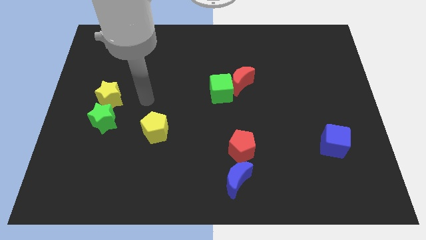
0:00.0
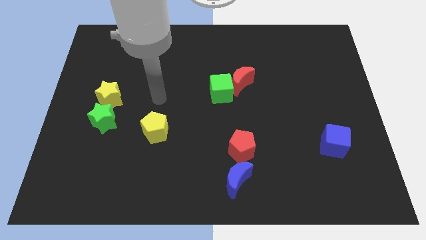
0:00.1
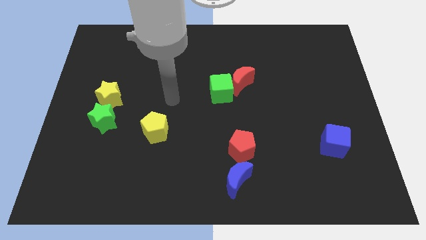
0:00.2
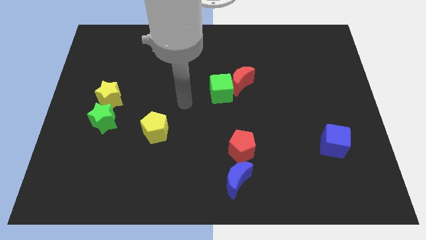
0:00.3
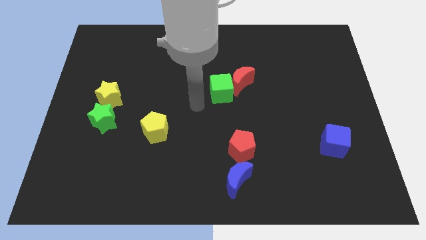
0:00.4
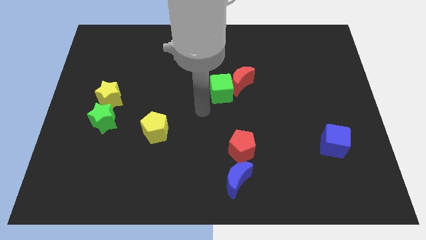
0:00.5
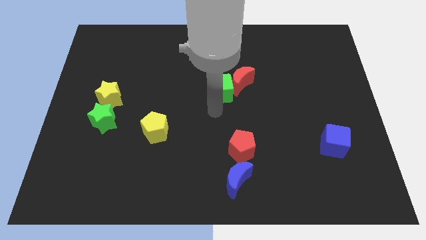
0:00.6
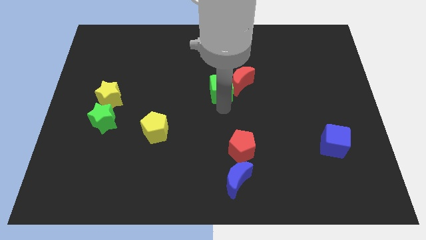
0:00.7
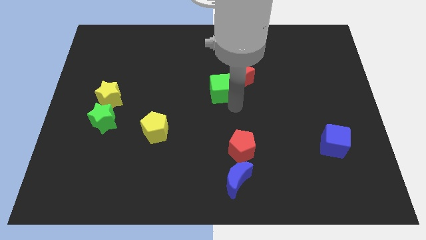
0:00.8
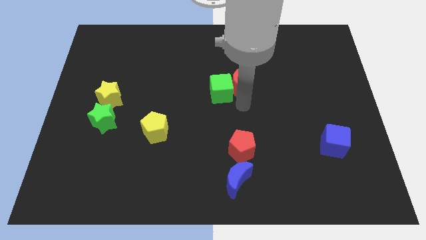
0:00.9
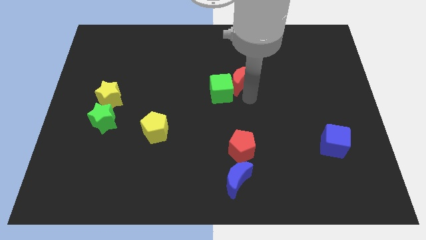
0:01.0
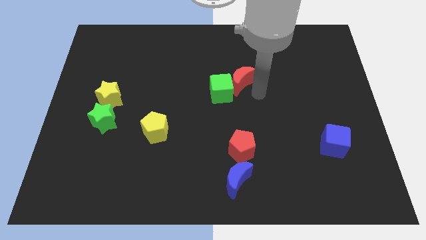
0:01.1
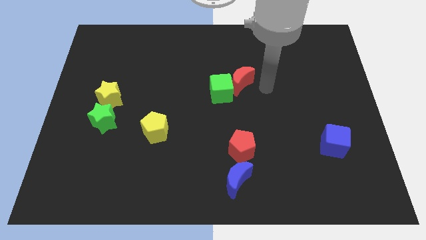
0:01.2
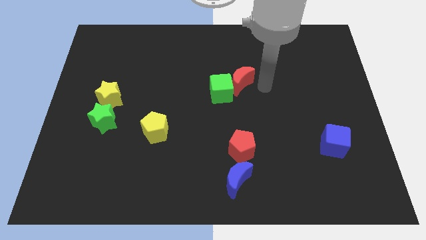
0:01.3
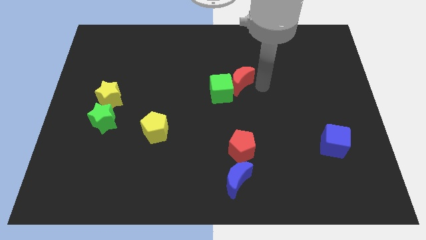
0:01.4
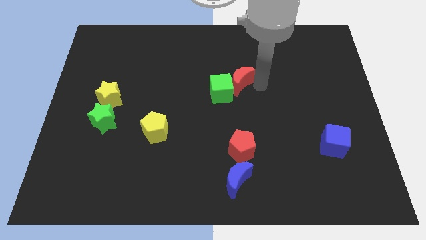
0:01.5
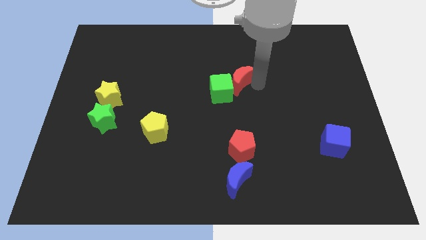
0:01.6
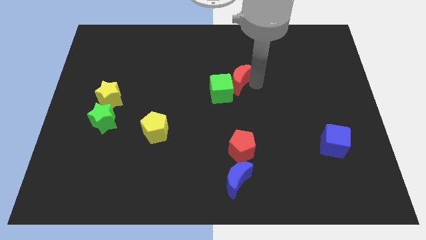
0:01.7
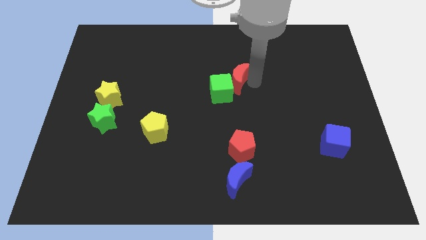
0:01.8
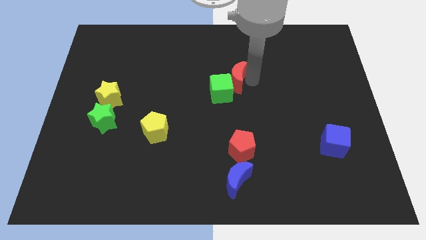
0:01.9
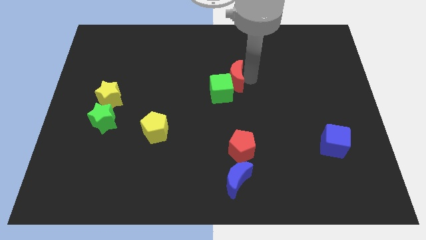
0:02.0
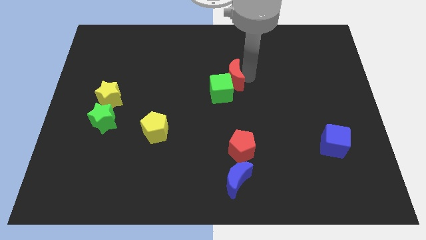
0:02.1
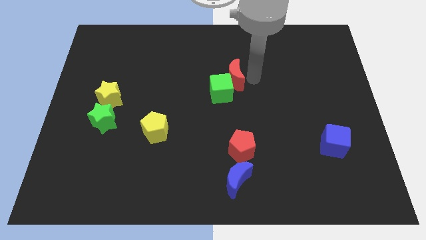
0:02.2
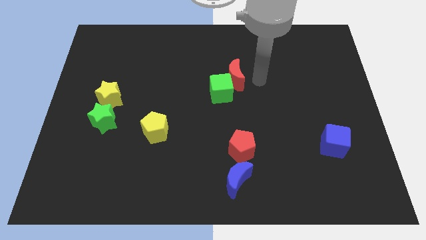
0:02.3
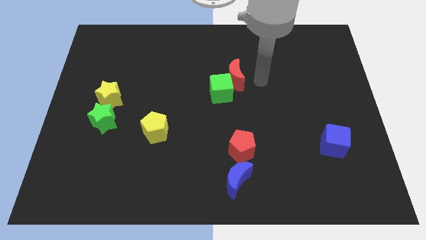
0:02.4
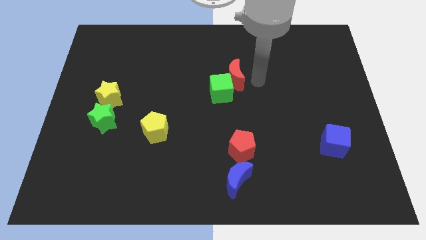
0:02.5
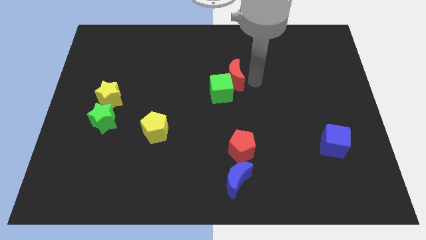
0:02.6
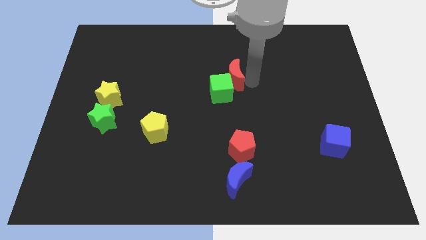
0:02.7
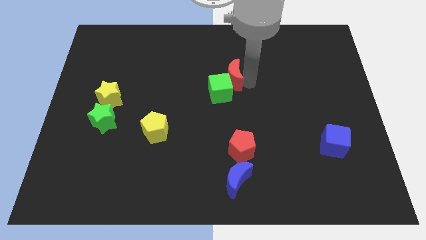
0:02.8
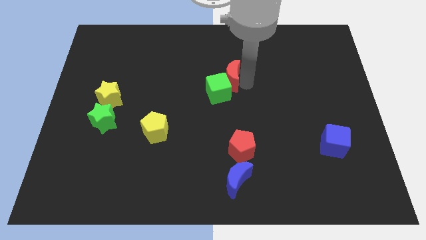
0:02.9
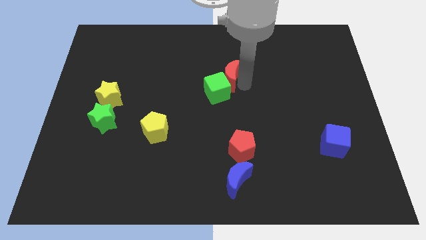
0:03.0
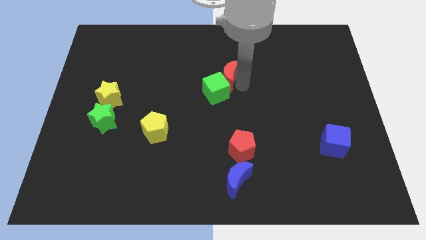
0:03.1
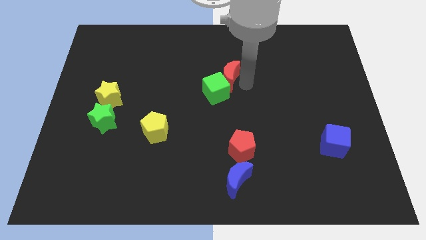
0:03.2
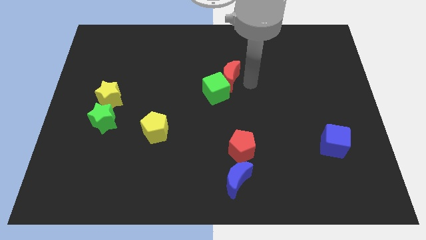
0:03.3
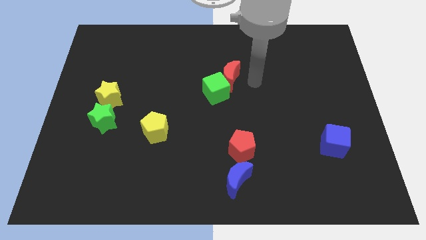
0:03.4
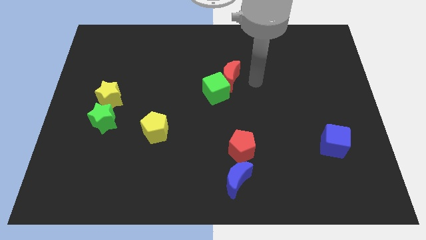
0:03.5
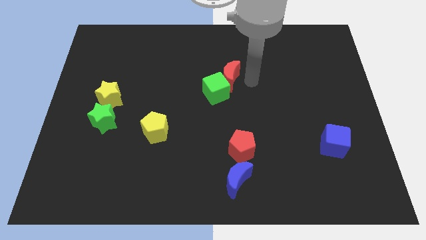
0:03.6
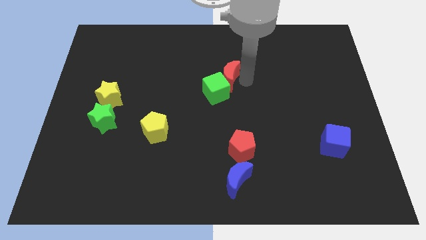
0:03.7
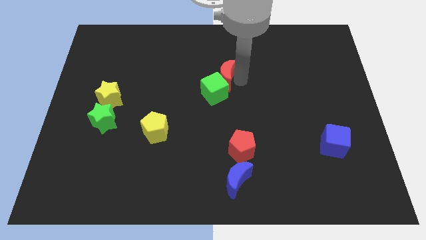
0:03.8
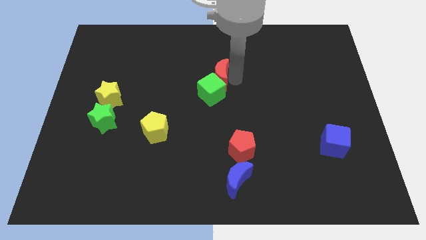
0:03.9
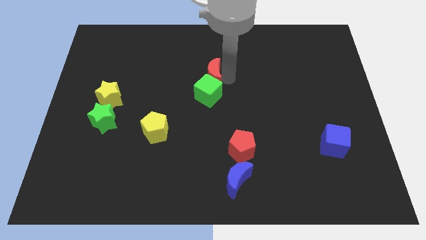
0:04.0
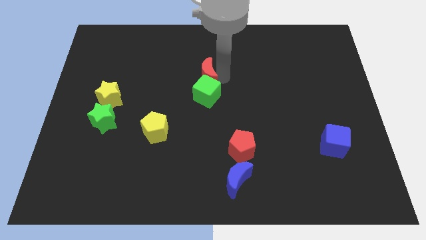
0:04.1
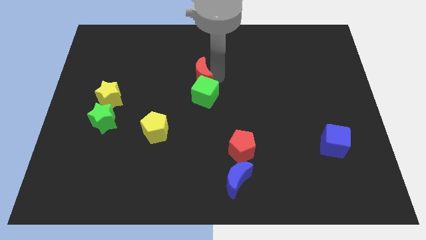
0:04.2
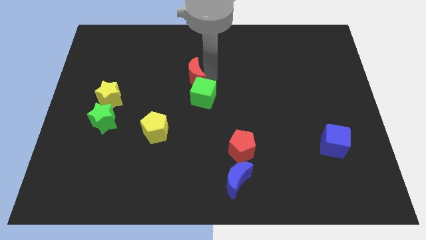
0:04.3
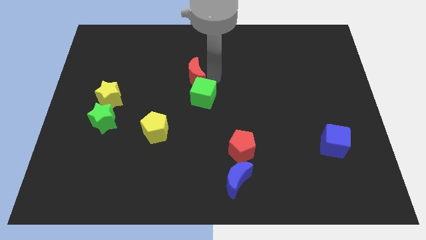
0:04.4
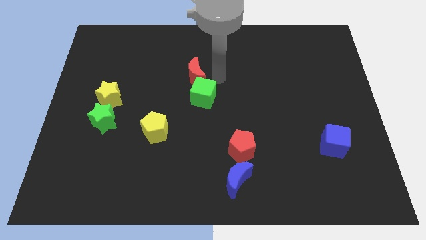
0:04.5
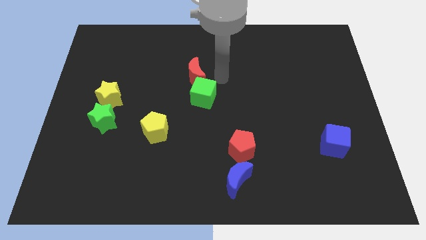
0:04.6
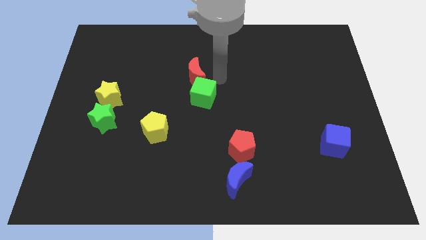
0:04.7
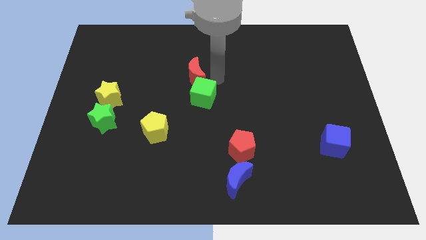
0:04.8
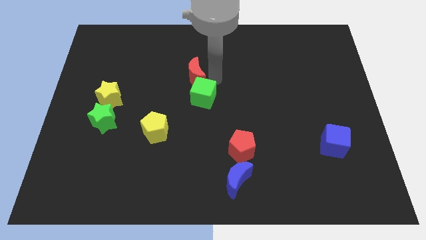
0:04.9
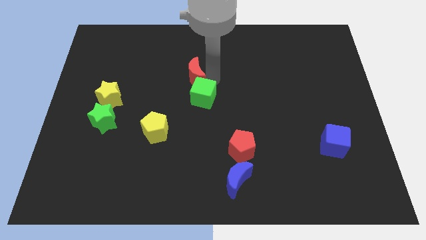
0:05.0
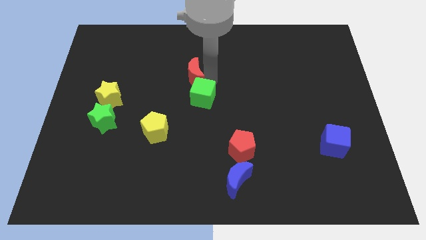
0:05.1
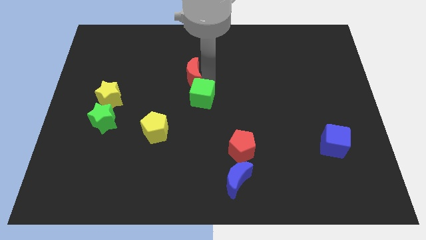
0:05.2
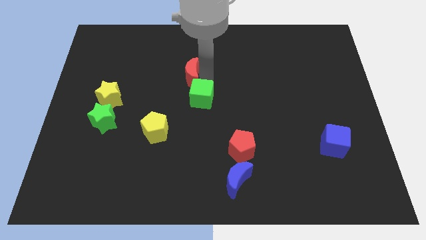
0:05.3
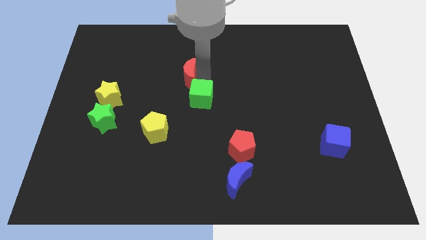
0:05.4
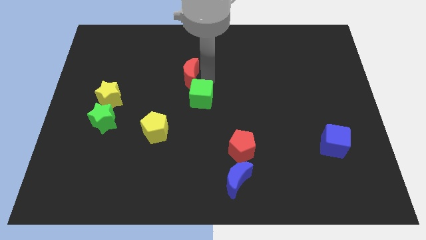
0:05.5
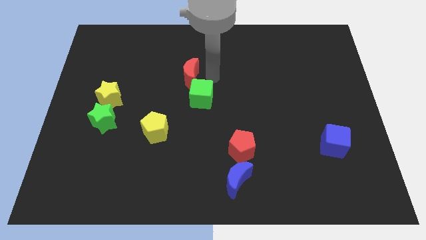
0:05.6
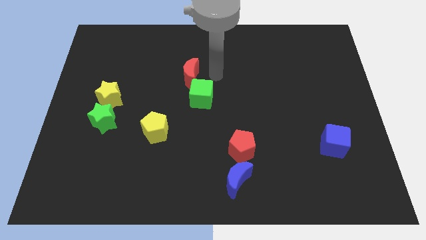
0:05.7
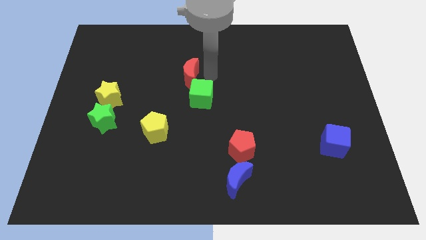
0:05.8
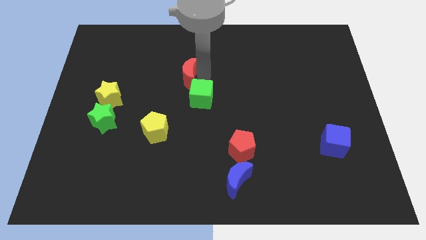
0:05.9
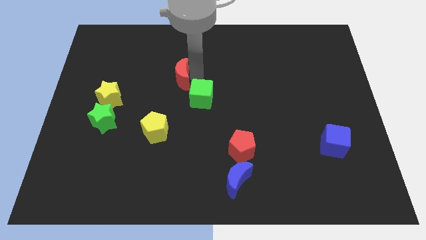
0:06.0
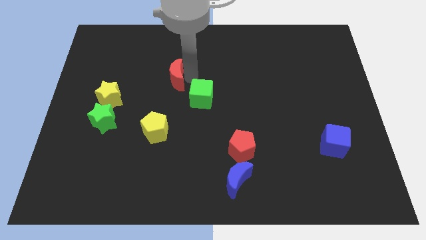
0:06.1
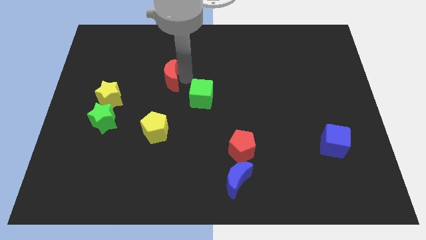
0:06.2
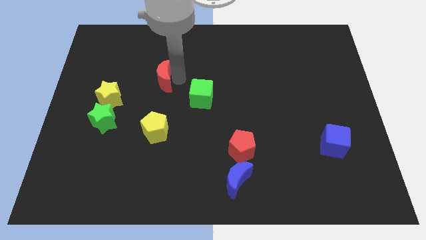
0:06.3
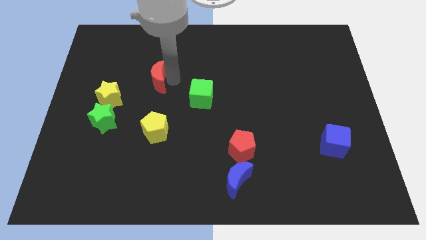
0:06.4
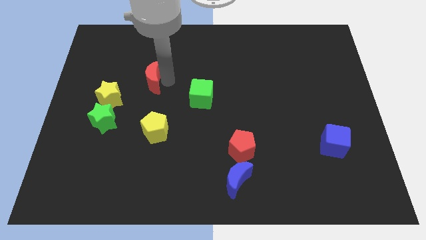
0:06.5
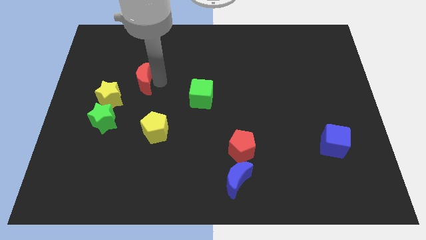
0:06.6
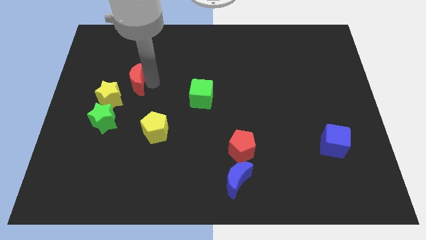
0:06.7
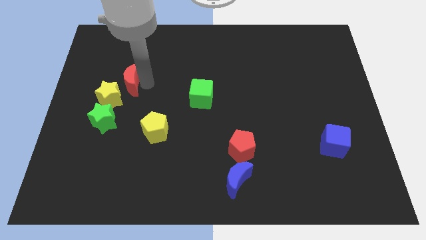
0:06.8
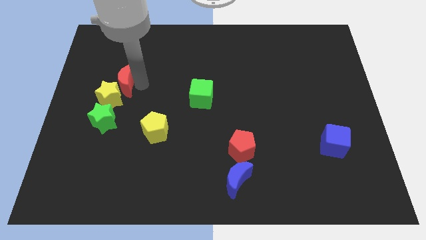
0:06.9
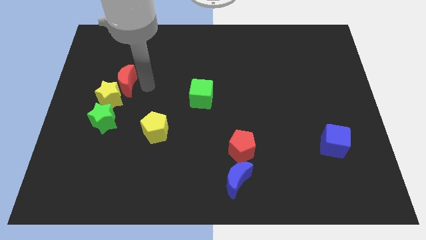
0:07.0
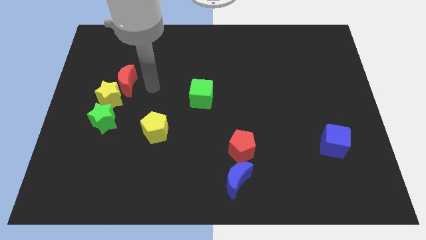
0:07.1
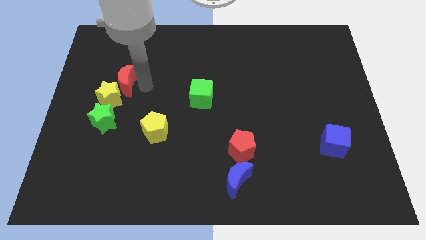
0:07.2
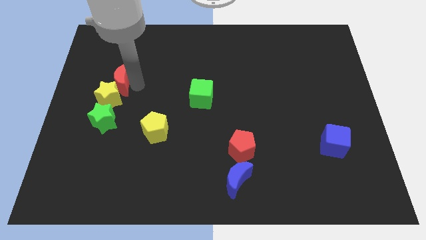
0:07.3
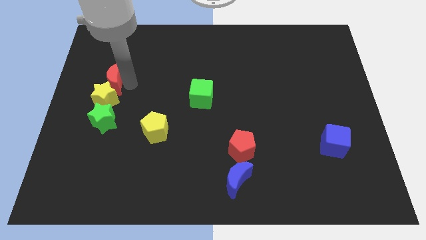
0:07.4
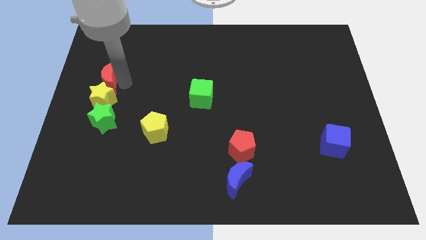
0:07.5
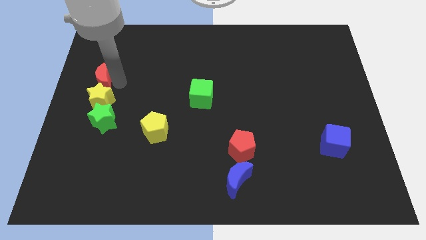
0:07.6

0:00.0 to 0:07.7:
put the red moon to the left side of the board

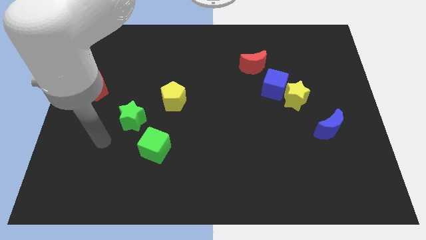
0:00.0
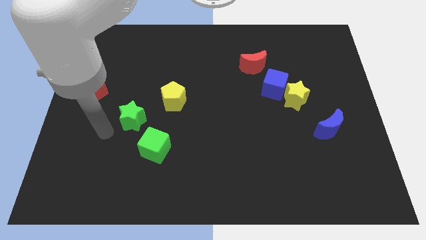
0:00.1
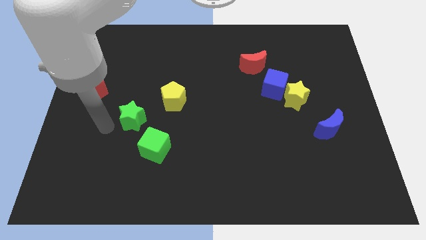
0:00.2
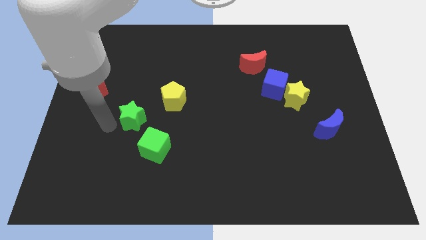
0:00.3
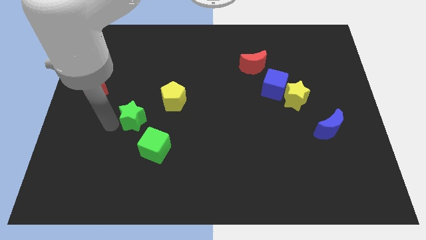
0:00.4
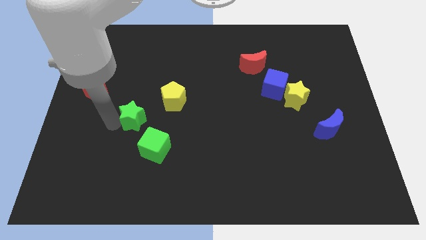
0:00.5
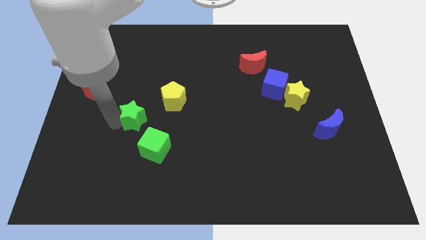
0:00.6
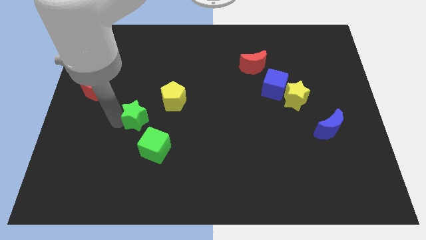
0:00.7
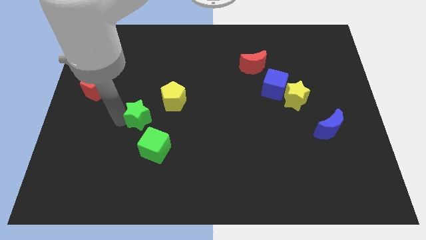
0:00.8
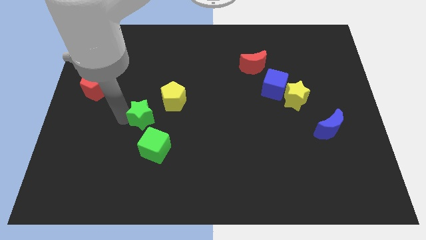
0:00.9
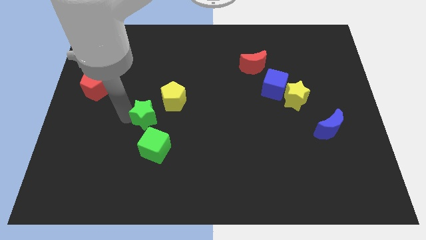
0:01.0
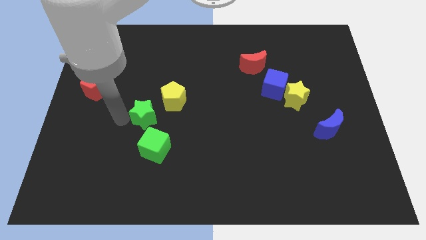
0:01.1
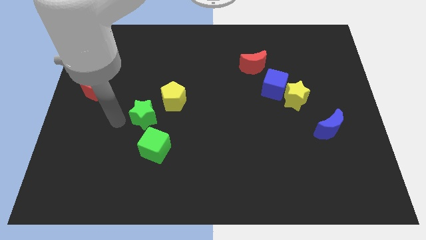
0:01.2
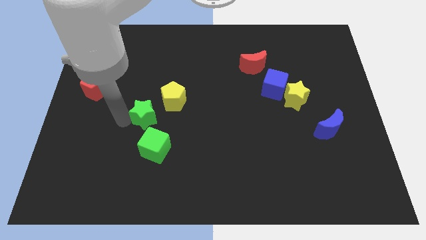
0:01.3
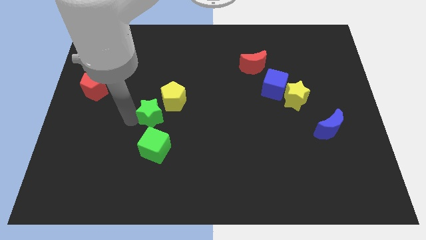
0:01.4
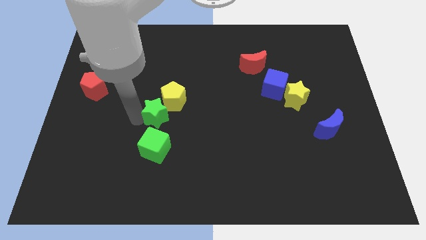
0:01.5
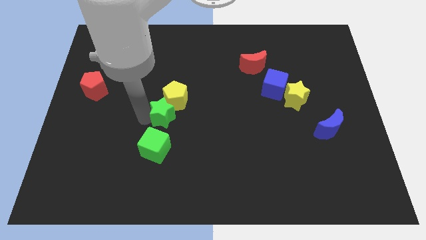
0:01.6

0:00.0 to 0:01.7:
put the green star to the middle of the board
